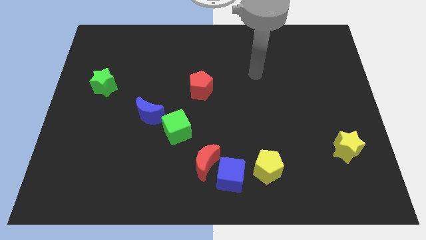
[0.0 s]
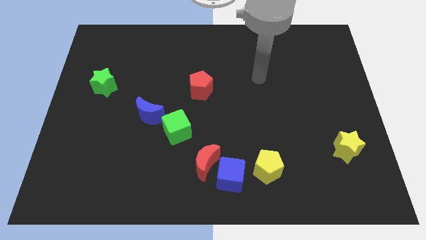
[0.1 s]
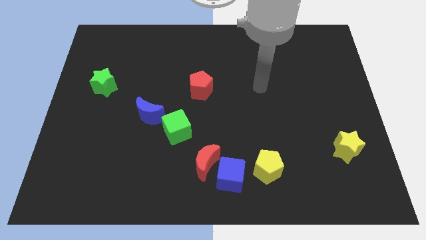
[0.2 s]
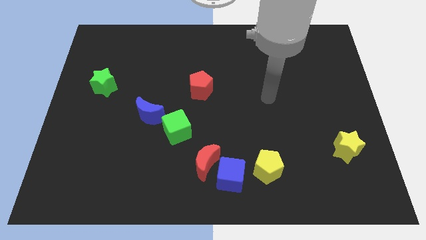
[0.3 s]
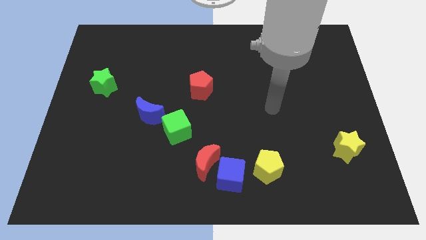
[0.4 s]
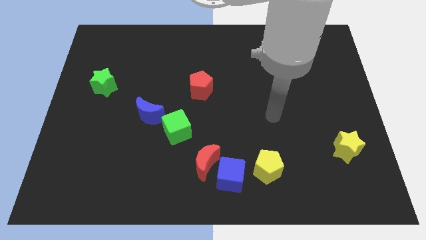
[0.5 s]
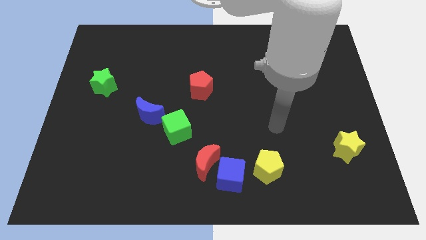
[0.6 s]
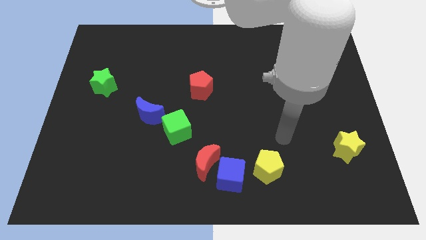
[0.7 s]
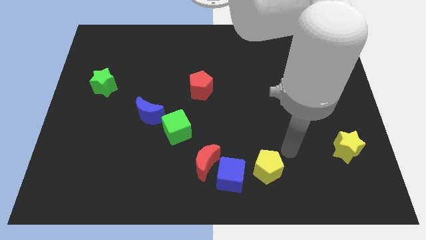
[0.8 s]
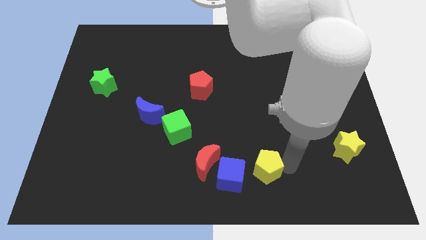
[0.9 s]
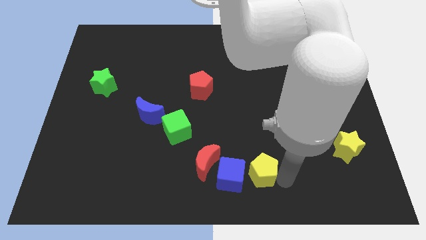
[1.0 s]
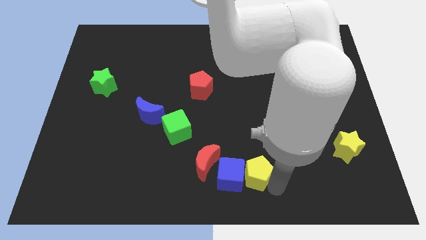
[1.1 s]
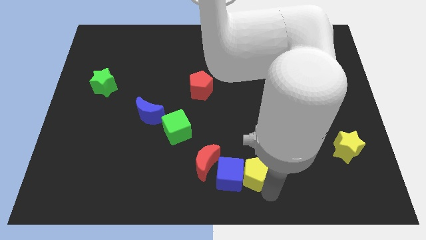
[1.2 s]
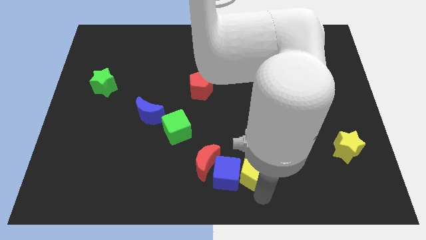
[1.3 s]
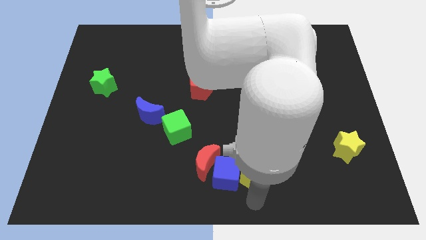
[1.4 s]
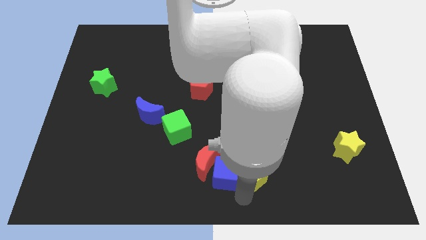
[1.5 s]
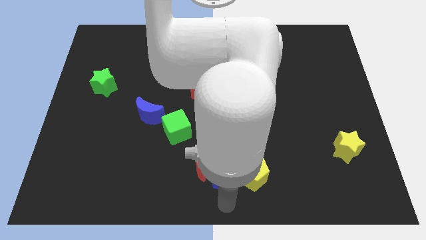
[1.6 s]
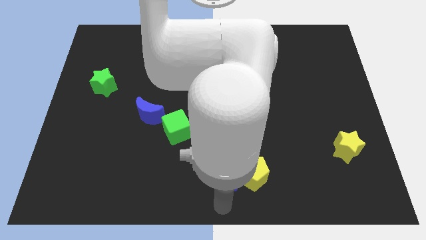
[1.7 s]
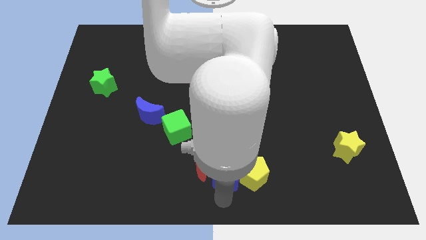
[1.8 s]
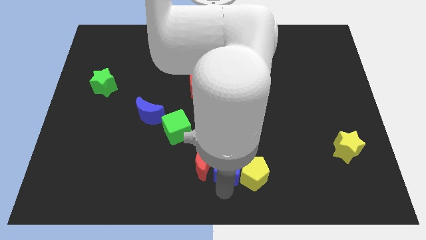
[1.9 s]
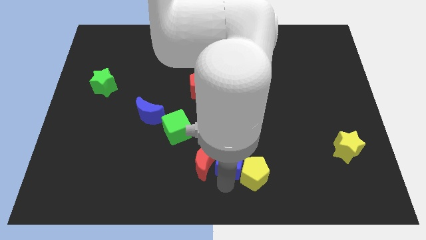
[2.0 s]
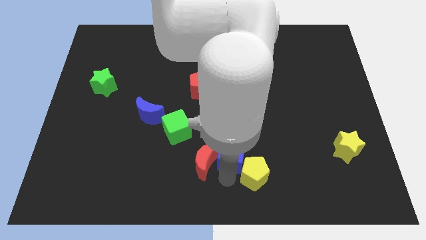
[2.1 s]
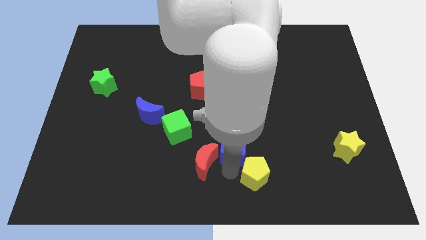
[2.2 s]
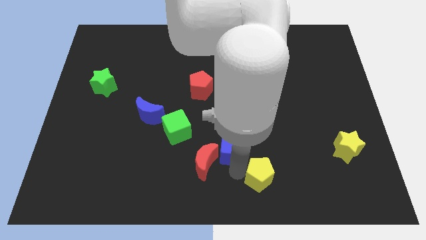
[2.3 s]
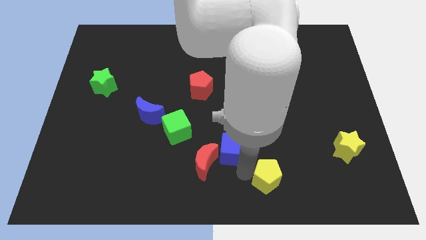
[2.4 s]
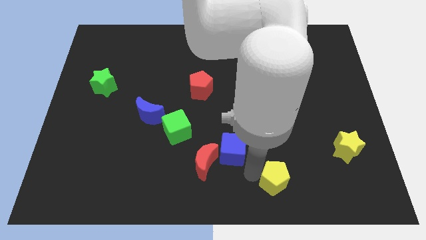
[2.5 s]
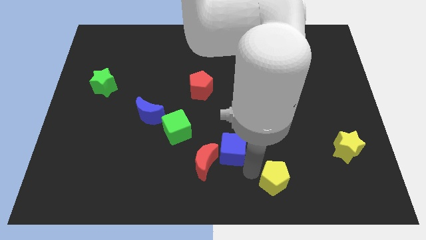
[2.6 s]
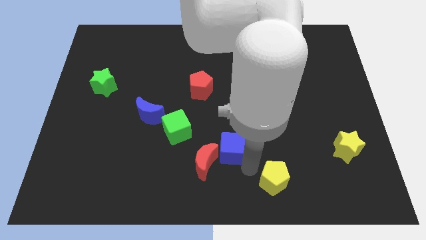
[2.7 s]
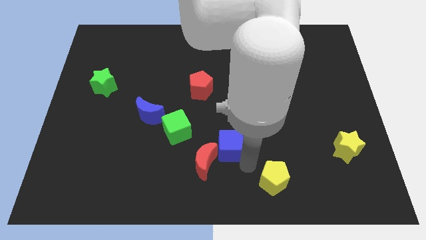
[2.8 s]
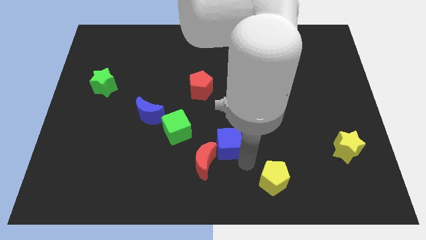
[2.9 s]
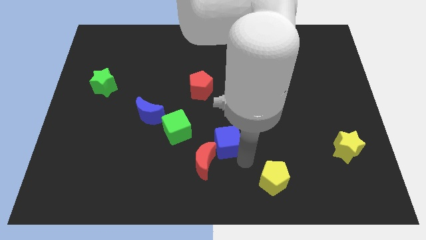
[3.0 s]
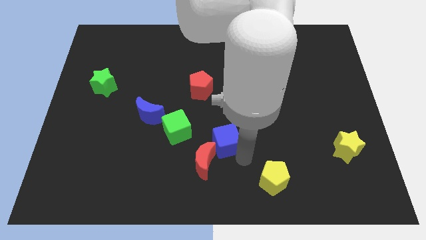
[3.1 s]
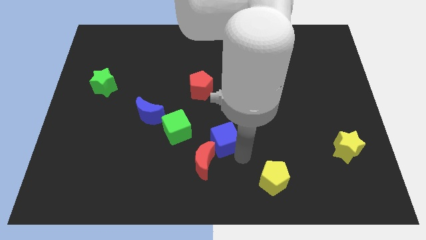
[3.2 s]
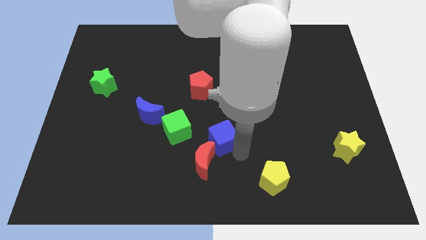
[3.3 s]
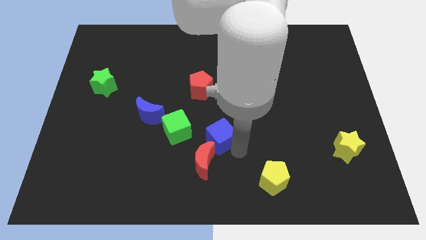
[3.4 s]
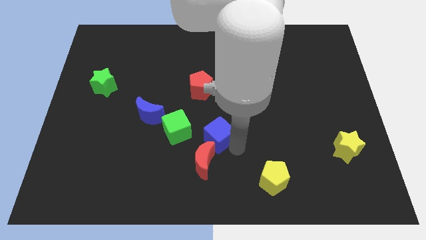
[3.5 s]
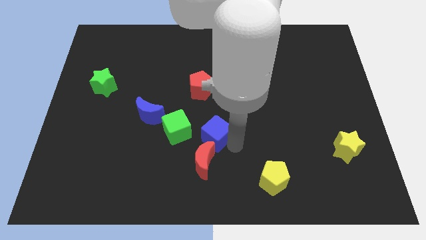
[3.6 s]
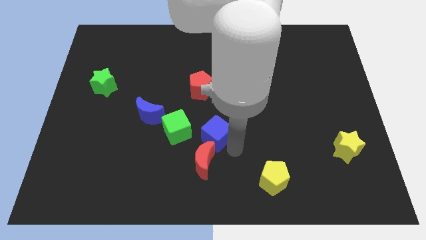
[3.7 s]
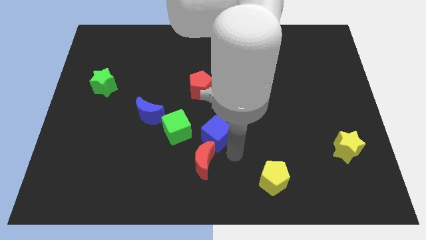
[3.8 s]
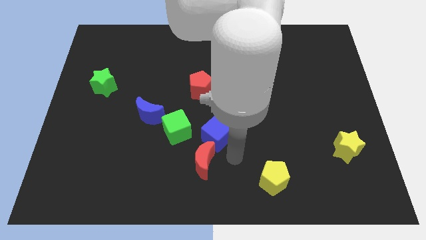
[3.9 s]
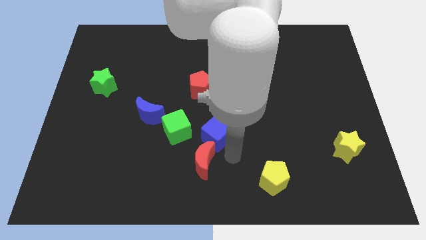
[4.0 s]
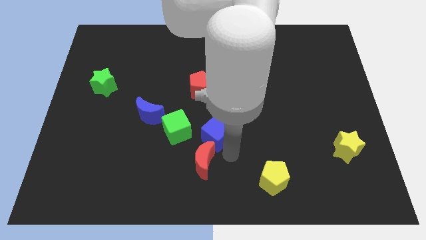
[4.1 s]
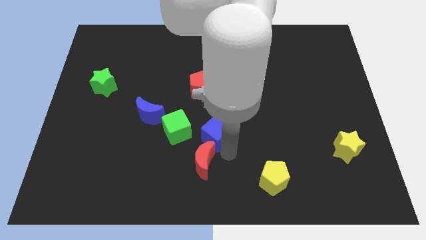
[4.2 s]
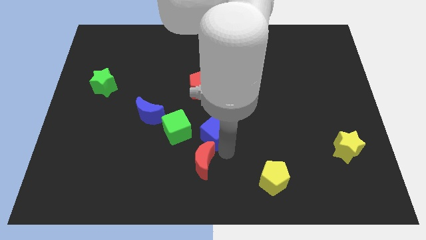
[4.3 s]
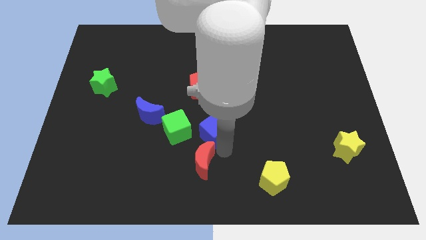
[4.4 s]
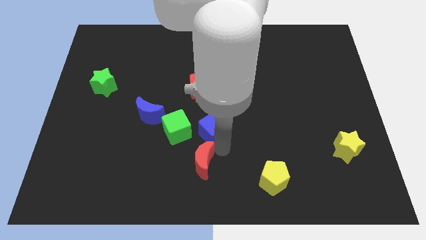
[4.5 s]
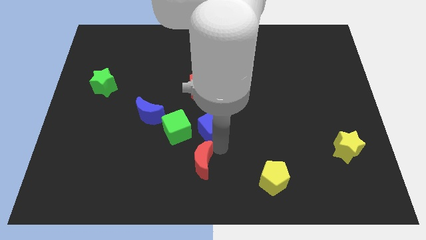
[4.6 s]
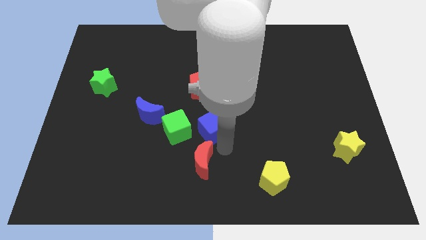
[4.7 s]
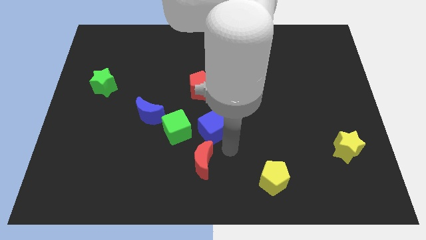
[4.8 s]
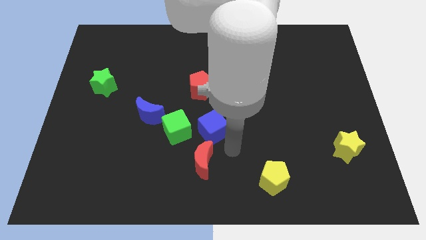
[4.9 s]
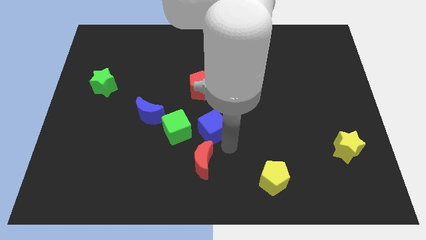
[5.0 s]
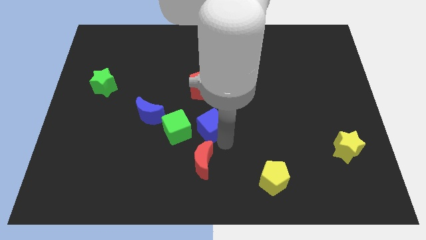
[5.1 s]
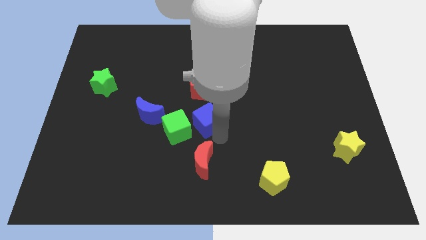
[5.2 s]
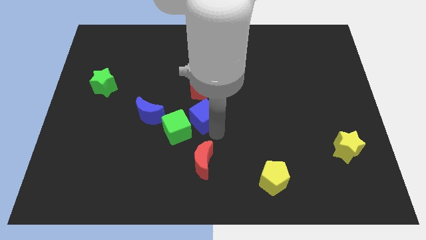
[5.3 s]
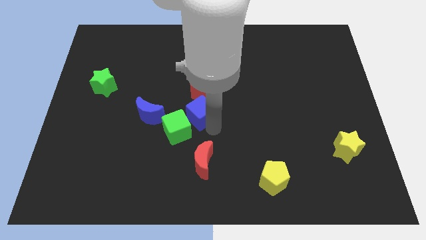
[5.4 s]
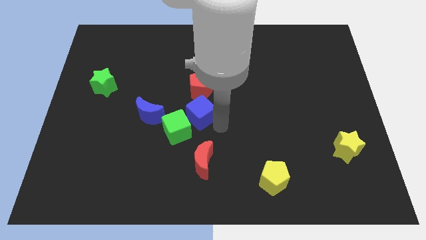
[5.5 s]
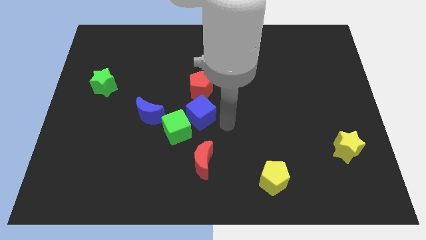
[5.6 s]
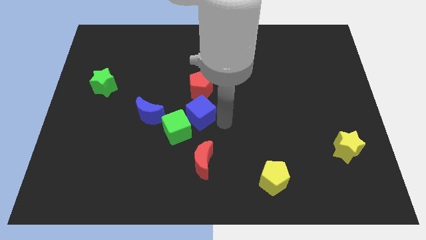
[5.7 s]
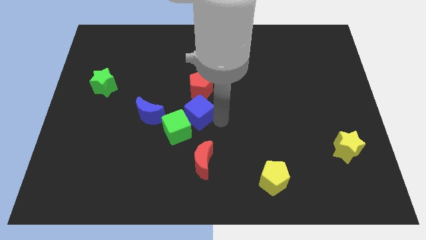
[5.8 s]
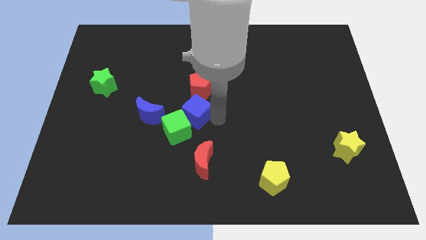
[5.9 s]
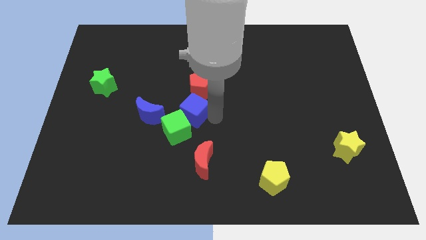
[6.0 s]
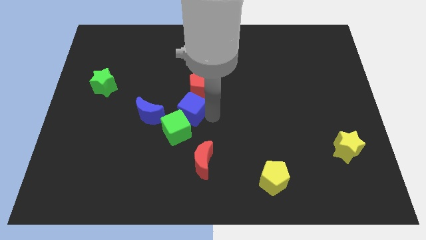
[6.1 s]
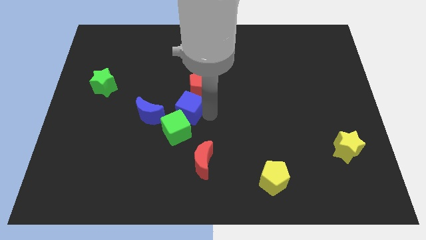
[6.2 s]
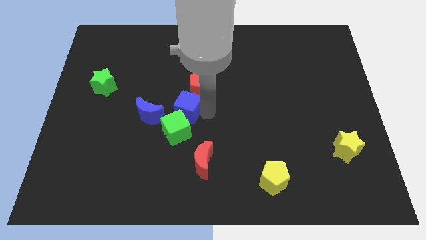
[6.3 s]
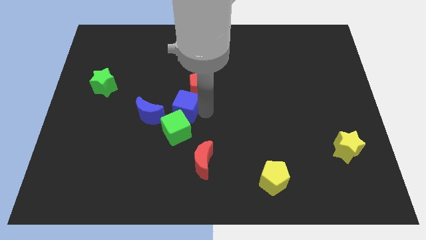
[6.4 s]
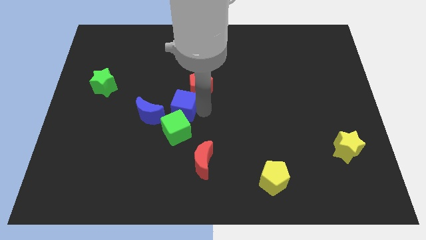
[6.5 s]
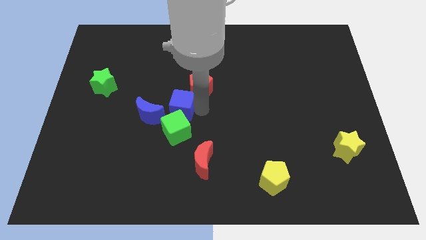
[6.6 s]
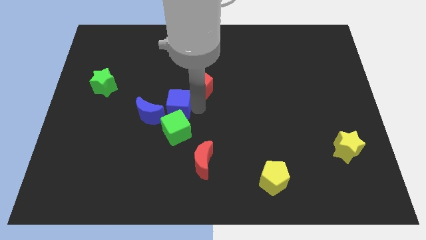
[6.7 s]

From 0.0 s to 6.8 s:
push the blue cube up and then left

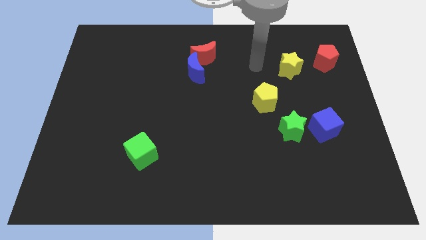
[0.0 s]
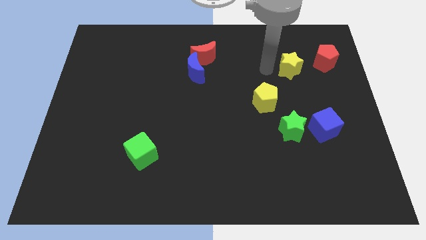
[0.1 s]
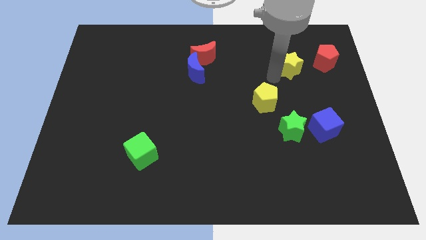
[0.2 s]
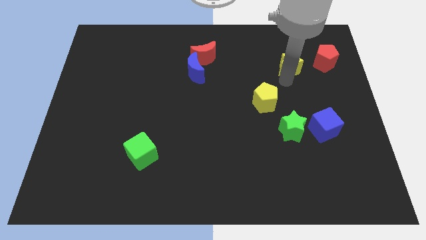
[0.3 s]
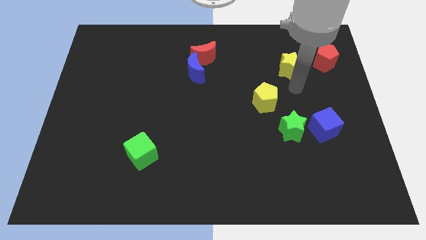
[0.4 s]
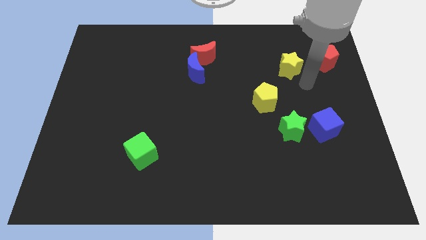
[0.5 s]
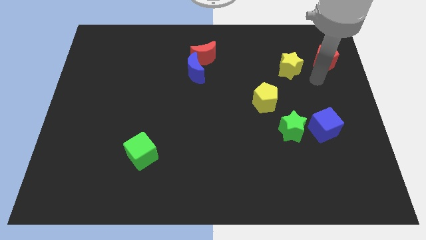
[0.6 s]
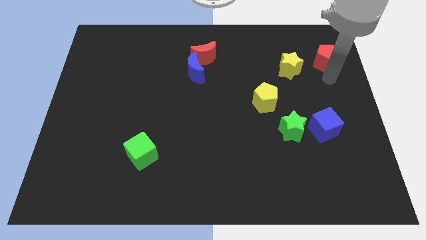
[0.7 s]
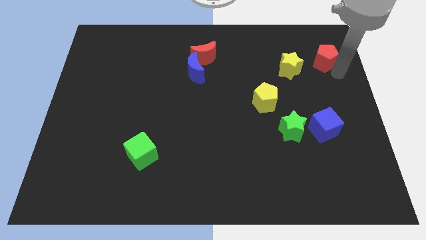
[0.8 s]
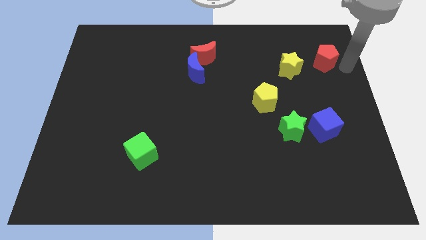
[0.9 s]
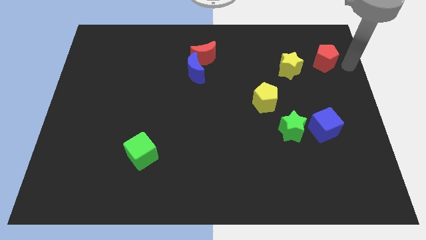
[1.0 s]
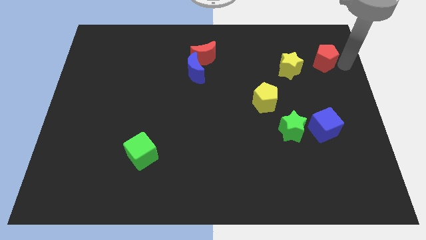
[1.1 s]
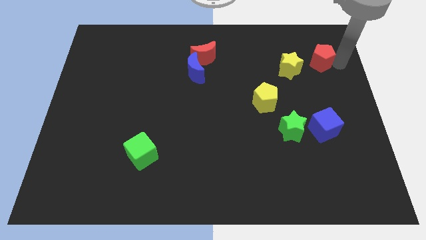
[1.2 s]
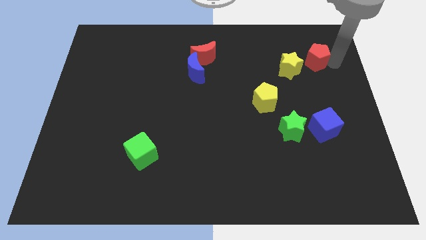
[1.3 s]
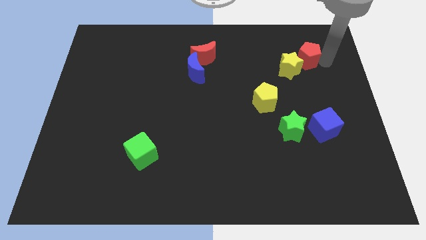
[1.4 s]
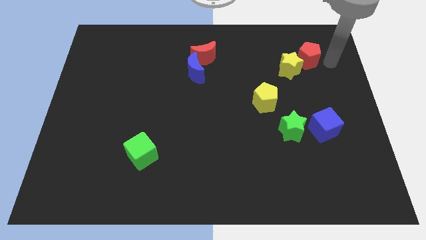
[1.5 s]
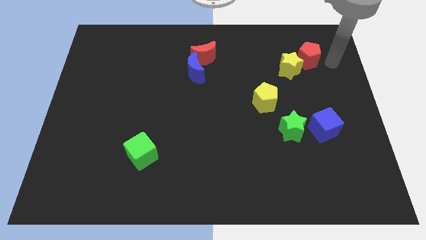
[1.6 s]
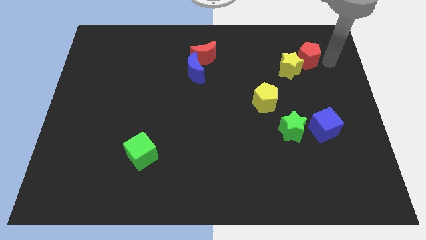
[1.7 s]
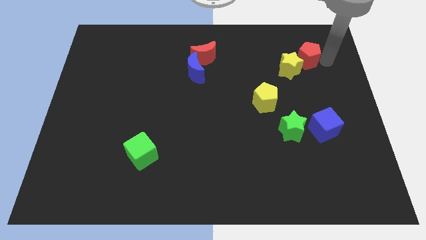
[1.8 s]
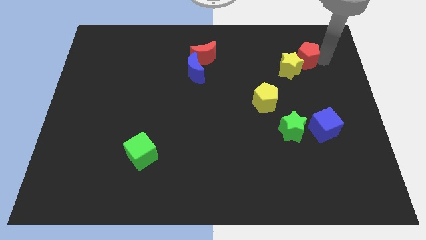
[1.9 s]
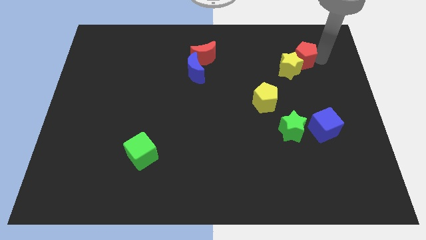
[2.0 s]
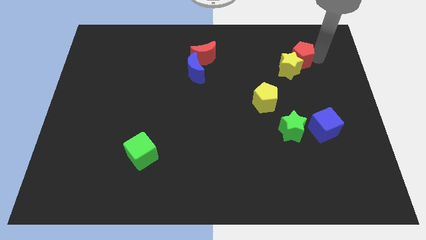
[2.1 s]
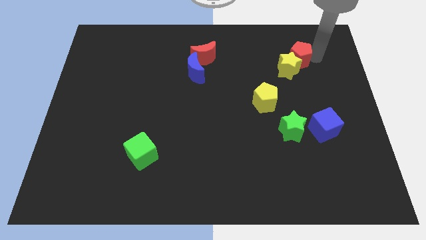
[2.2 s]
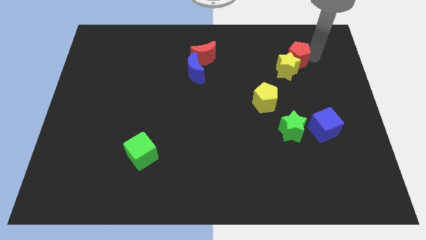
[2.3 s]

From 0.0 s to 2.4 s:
slightly push the red pentagon left
